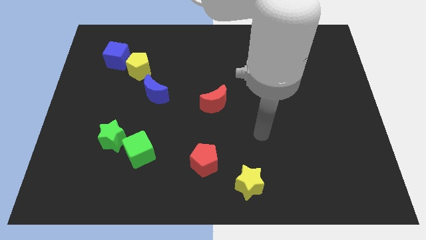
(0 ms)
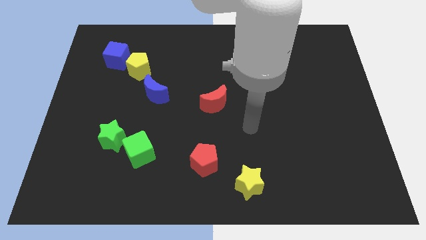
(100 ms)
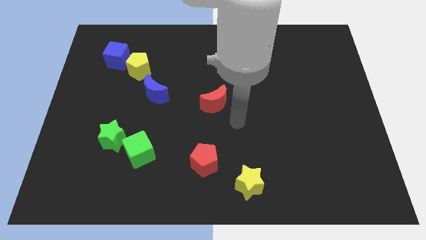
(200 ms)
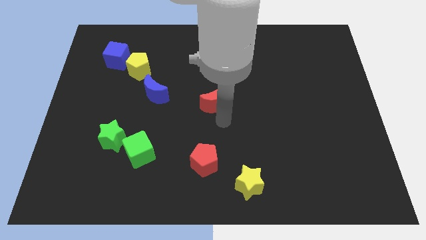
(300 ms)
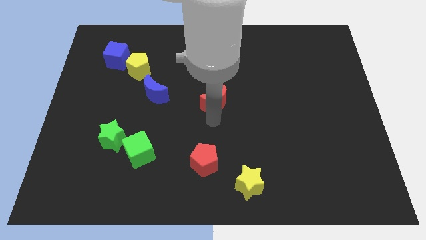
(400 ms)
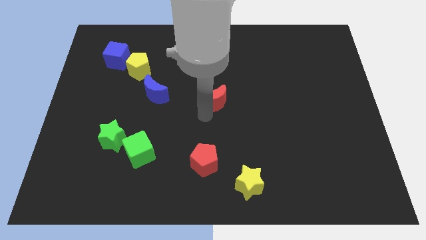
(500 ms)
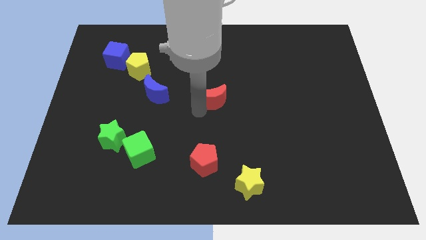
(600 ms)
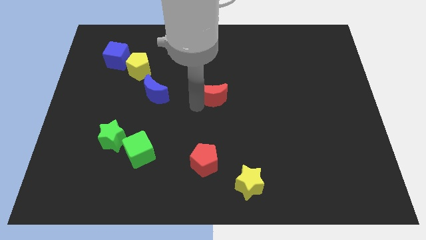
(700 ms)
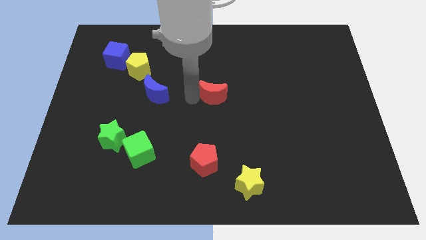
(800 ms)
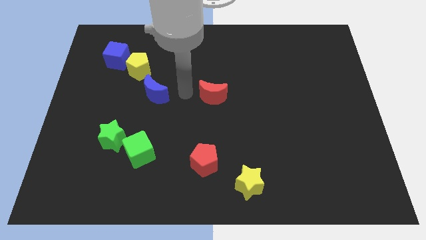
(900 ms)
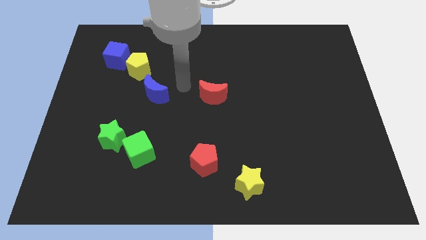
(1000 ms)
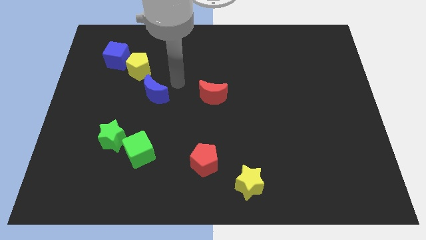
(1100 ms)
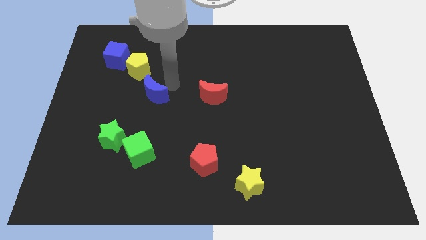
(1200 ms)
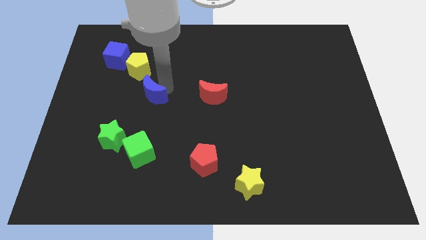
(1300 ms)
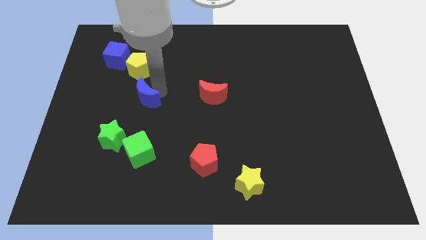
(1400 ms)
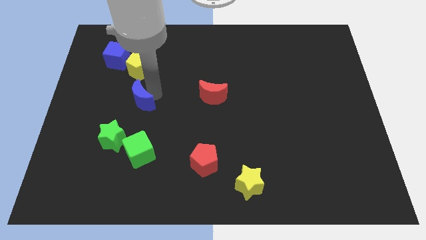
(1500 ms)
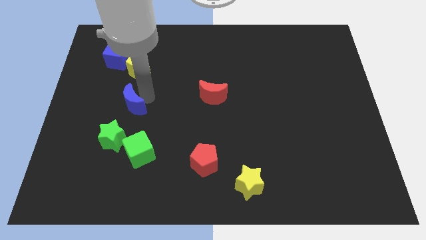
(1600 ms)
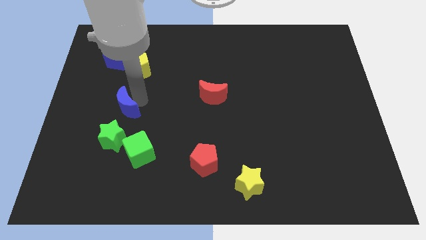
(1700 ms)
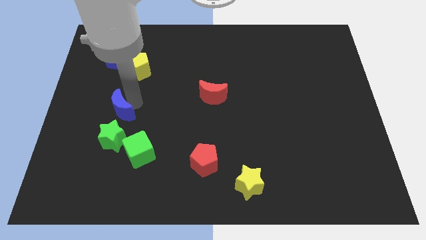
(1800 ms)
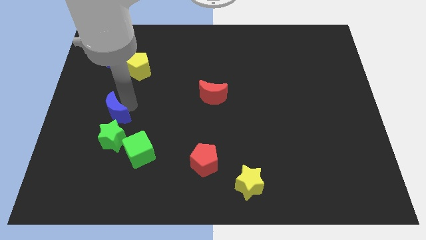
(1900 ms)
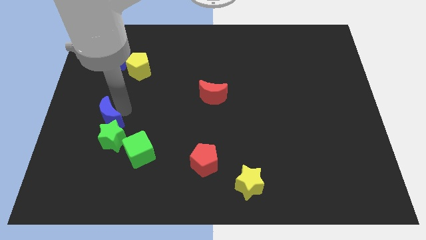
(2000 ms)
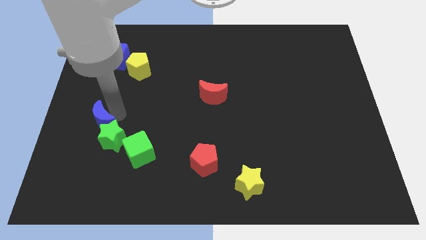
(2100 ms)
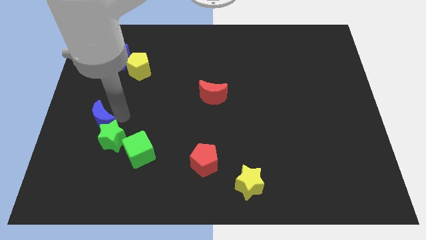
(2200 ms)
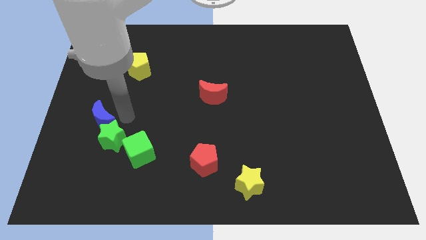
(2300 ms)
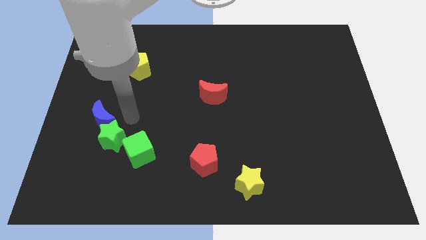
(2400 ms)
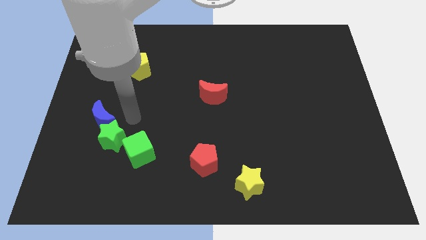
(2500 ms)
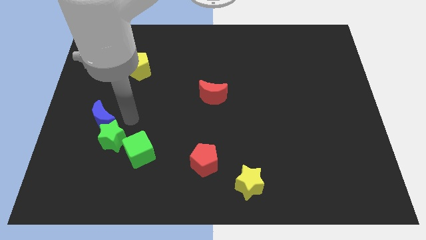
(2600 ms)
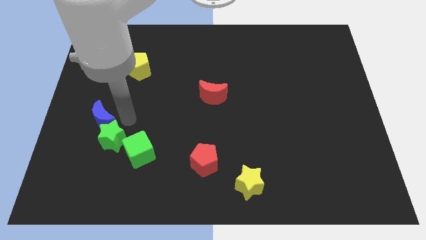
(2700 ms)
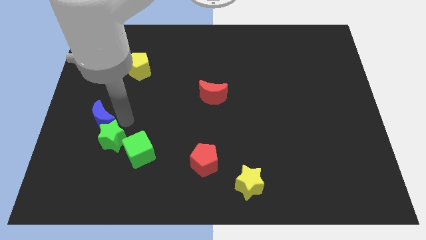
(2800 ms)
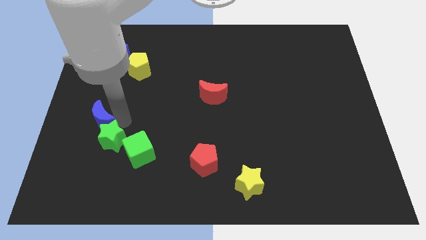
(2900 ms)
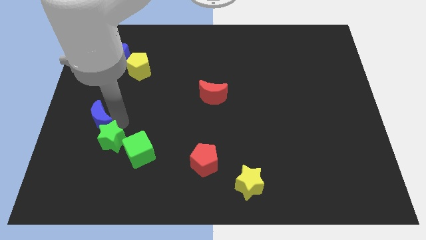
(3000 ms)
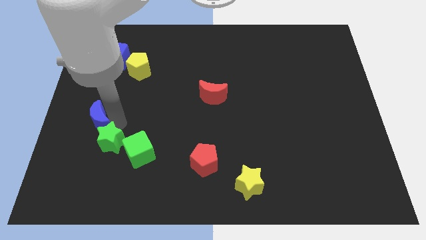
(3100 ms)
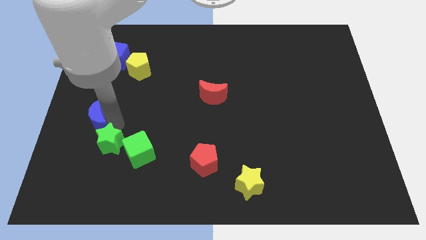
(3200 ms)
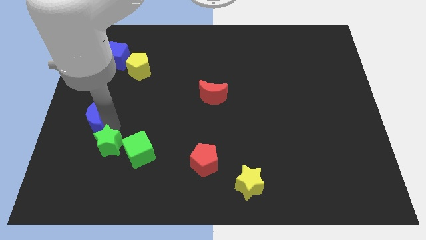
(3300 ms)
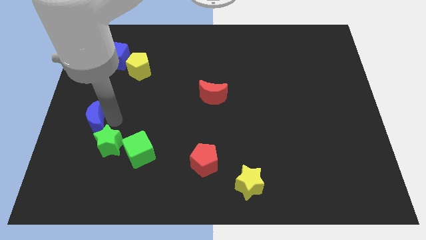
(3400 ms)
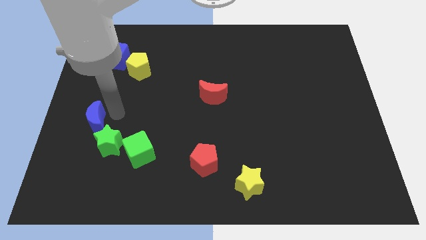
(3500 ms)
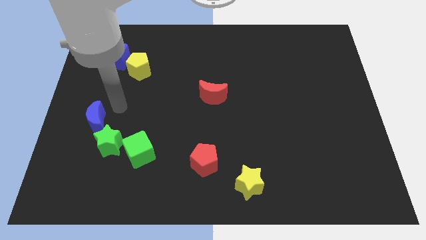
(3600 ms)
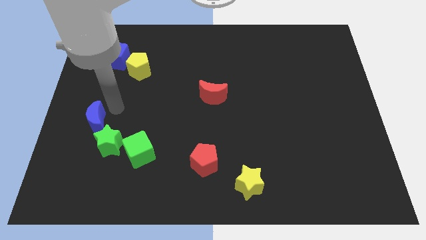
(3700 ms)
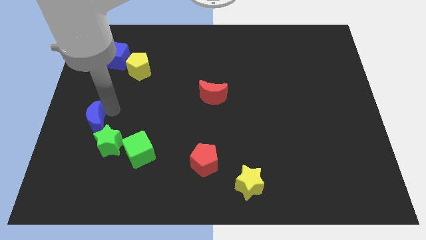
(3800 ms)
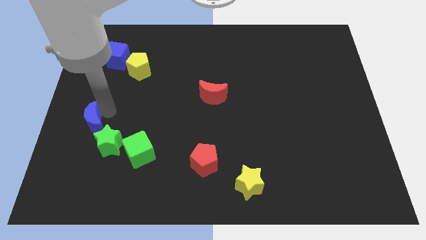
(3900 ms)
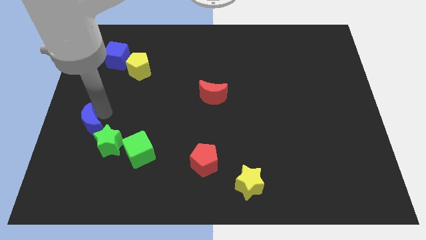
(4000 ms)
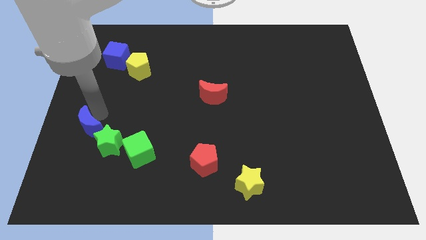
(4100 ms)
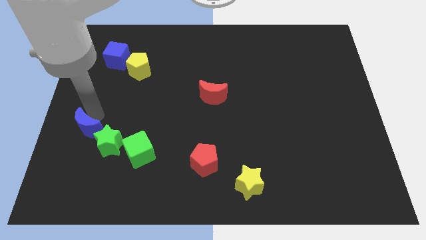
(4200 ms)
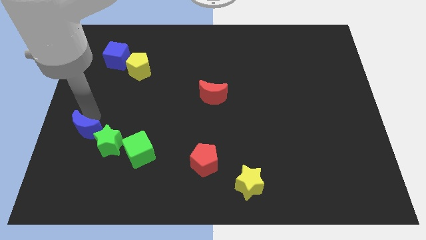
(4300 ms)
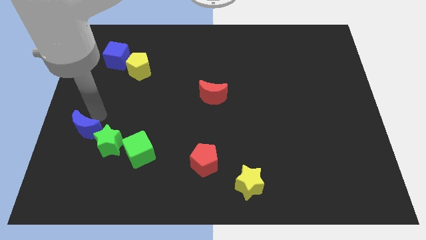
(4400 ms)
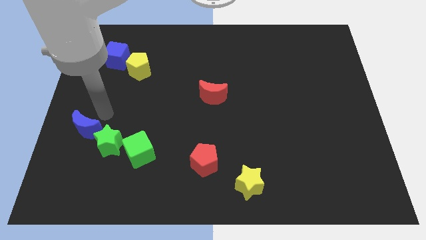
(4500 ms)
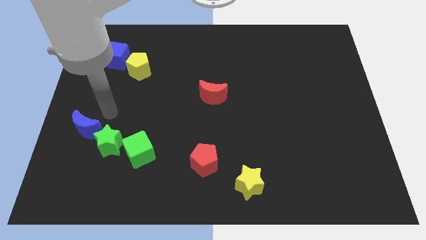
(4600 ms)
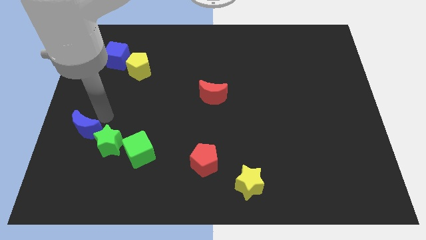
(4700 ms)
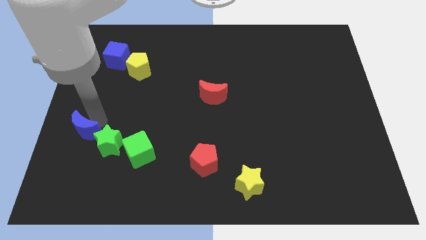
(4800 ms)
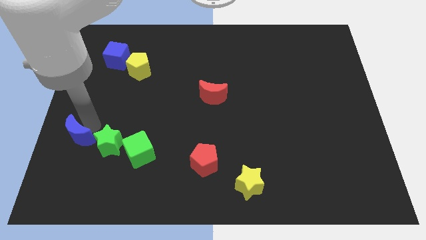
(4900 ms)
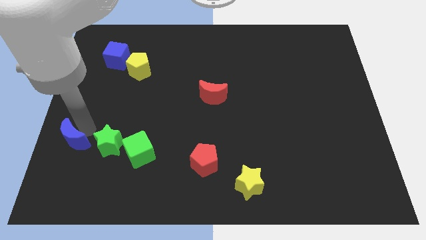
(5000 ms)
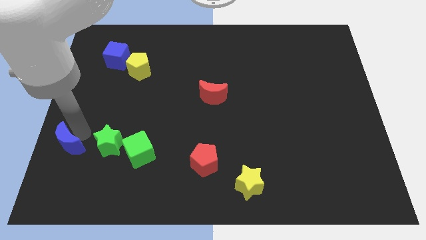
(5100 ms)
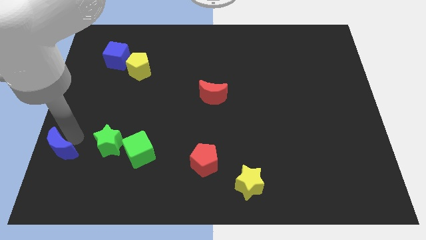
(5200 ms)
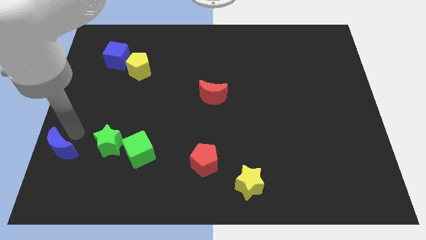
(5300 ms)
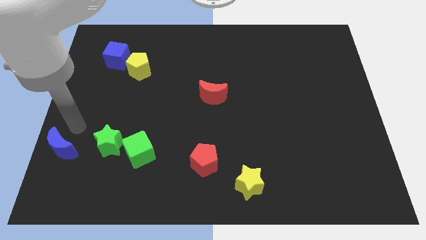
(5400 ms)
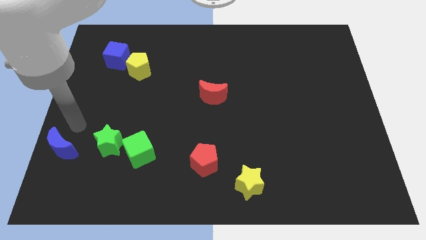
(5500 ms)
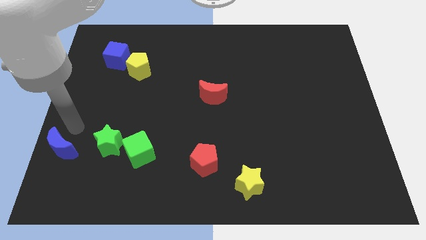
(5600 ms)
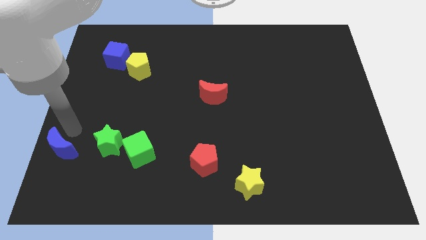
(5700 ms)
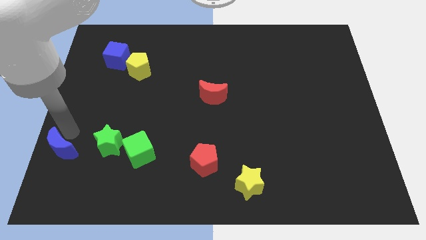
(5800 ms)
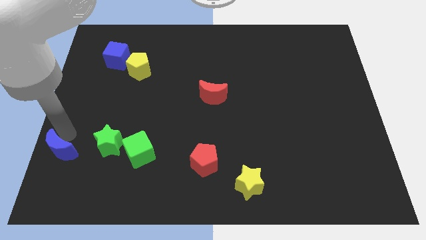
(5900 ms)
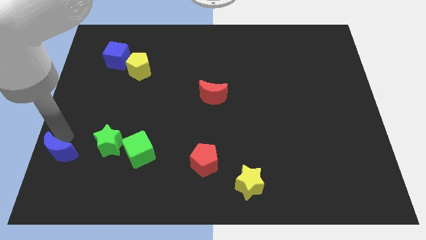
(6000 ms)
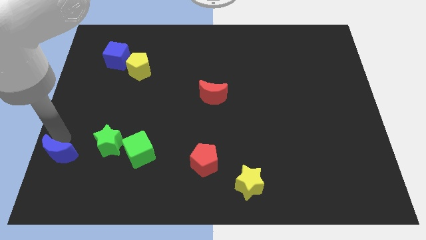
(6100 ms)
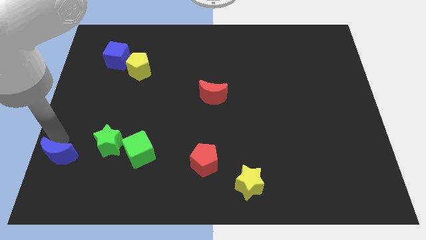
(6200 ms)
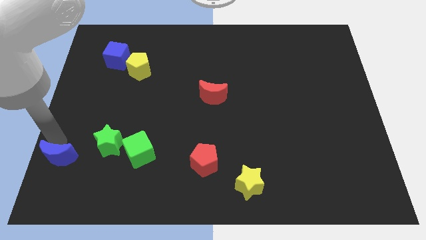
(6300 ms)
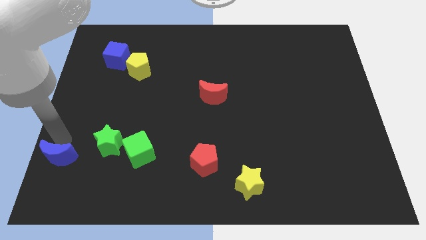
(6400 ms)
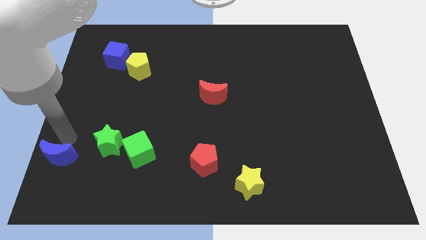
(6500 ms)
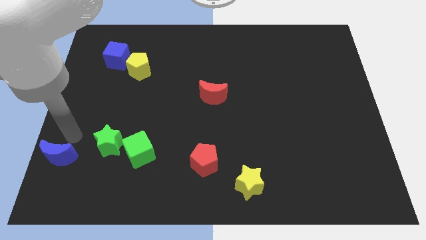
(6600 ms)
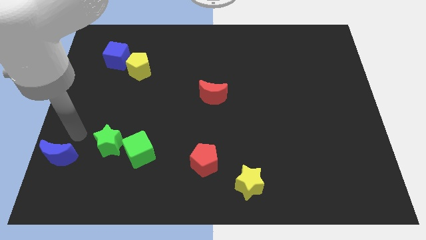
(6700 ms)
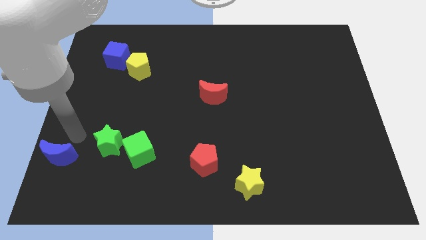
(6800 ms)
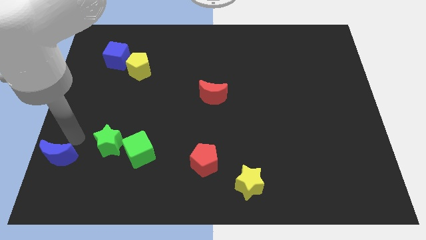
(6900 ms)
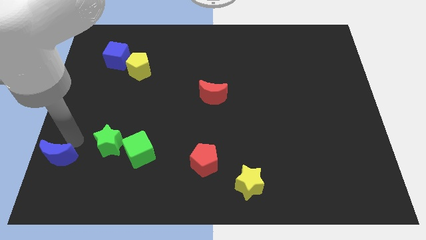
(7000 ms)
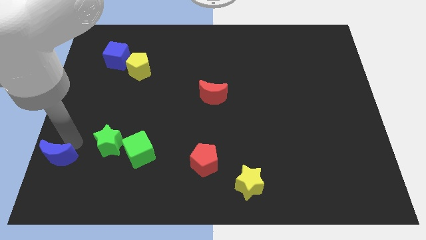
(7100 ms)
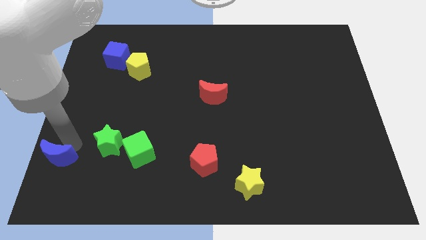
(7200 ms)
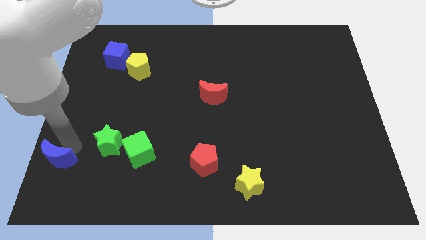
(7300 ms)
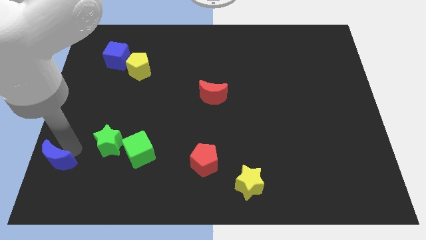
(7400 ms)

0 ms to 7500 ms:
put the blue moon to the bottom left of the board
